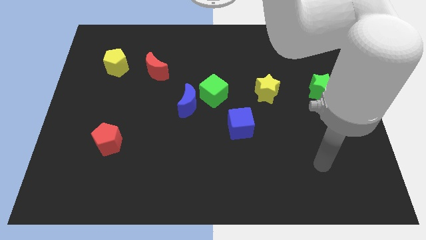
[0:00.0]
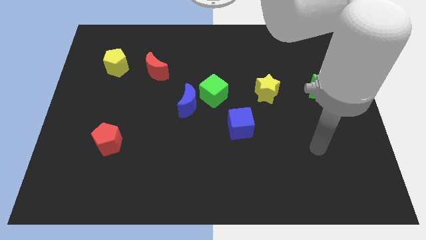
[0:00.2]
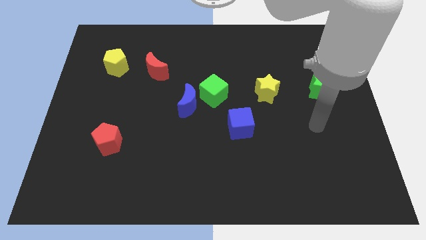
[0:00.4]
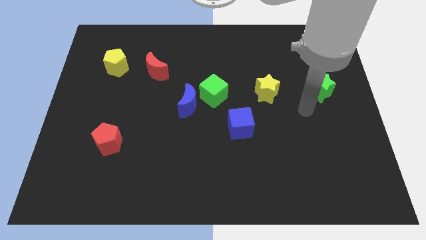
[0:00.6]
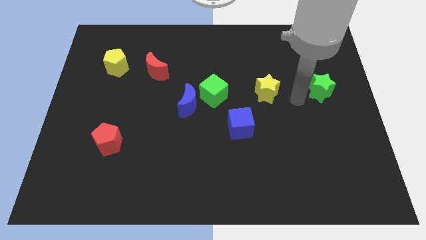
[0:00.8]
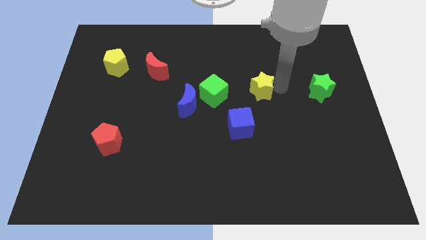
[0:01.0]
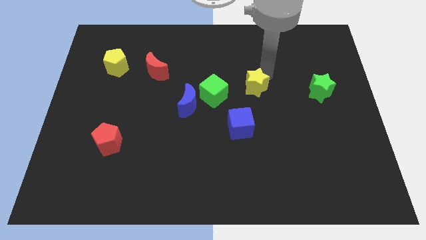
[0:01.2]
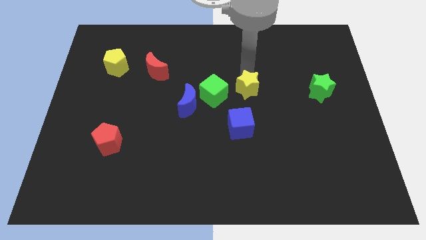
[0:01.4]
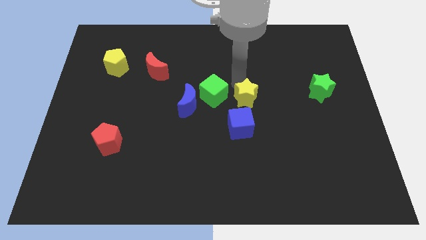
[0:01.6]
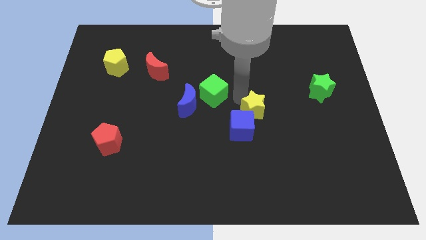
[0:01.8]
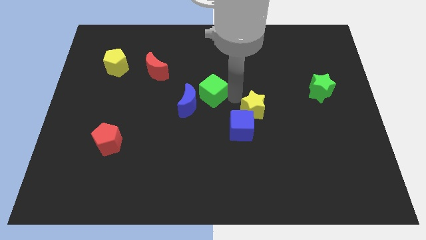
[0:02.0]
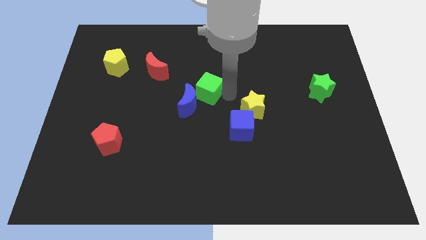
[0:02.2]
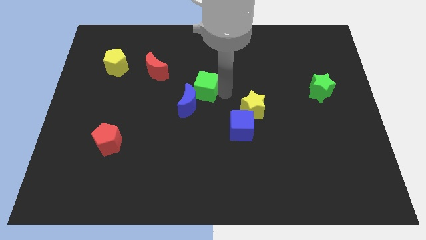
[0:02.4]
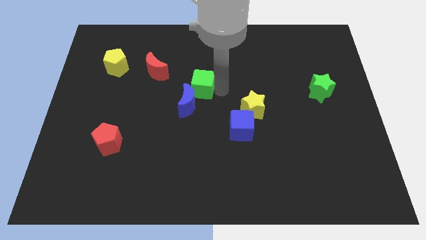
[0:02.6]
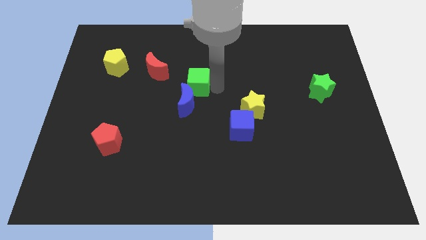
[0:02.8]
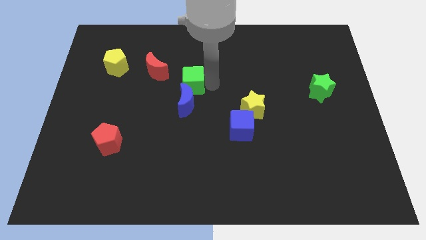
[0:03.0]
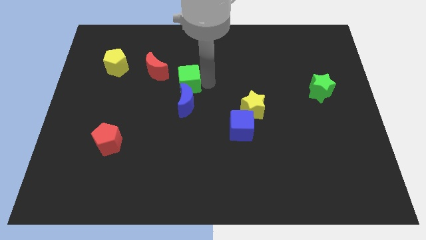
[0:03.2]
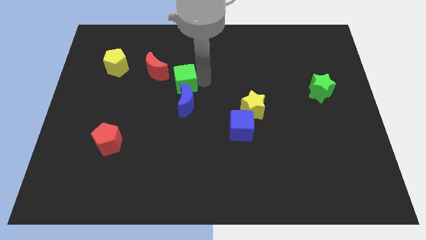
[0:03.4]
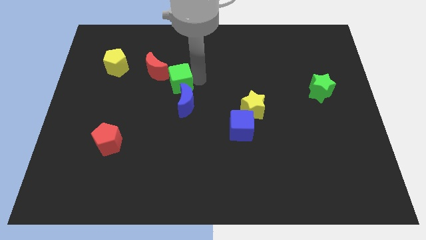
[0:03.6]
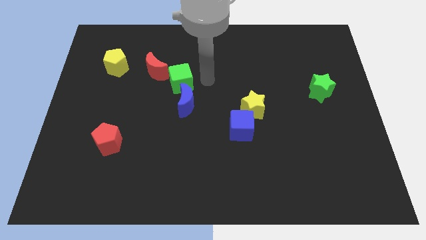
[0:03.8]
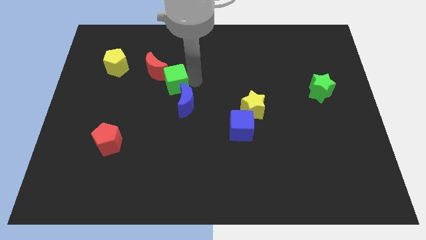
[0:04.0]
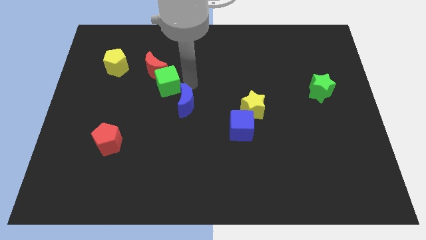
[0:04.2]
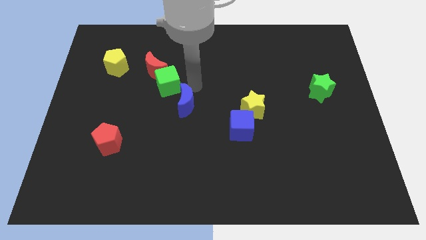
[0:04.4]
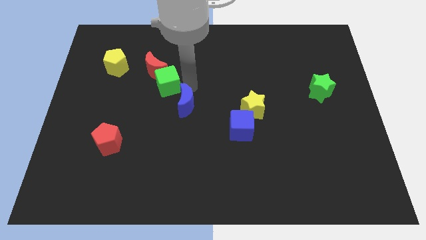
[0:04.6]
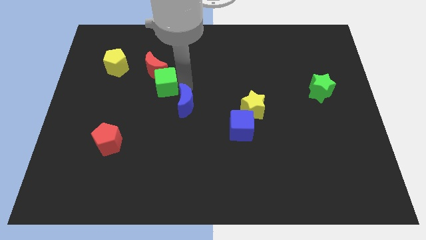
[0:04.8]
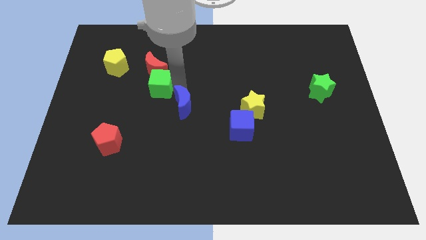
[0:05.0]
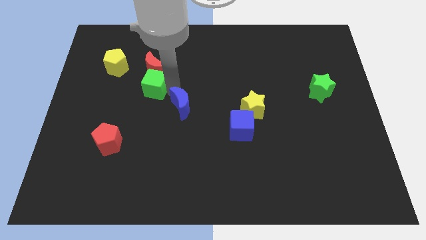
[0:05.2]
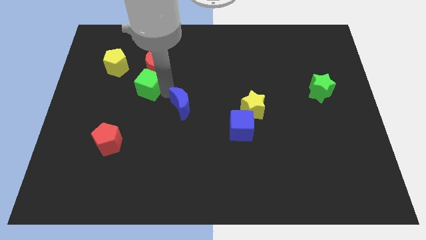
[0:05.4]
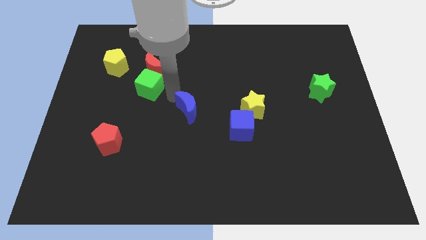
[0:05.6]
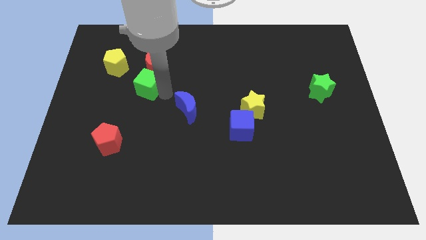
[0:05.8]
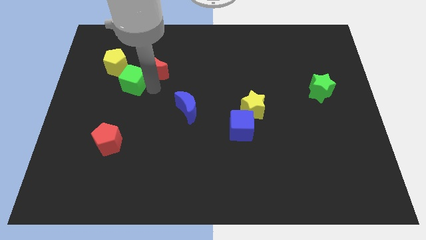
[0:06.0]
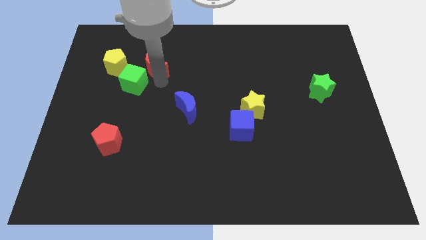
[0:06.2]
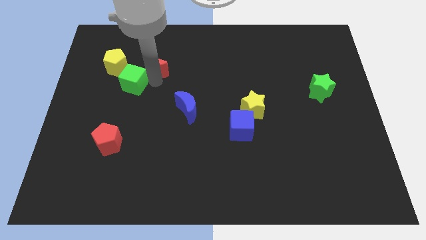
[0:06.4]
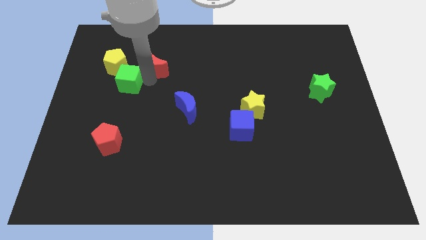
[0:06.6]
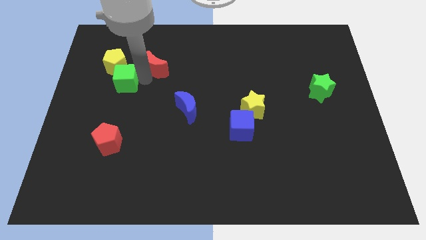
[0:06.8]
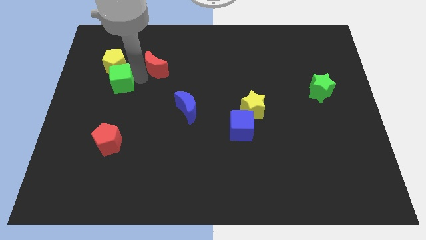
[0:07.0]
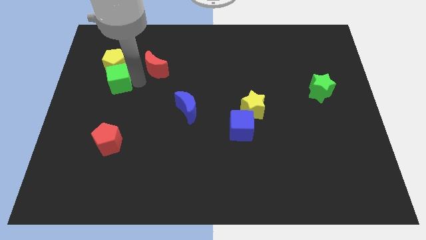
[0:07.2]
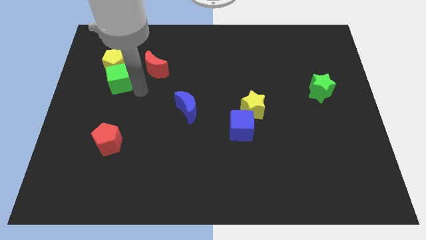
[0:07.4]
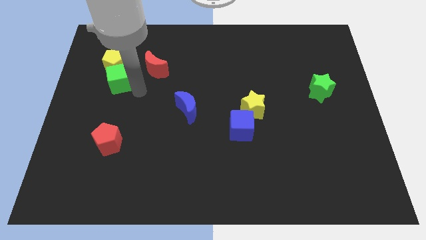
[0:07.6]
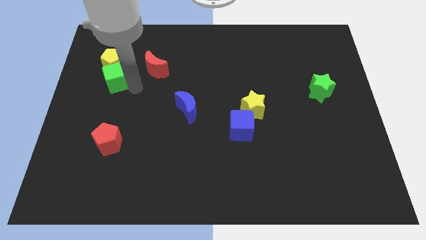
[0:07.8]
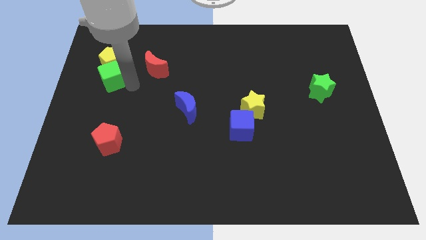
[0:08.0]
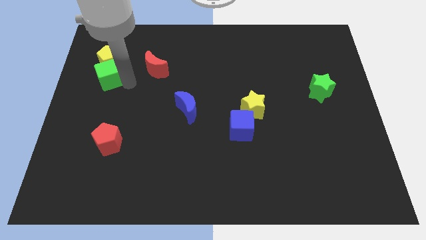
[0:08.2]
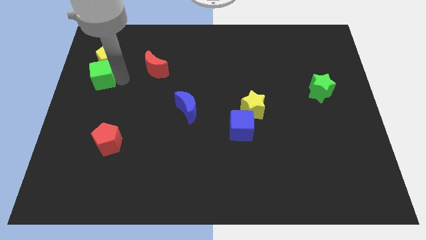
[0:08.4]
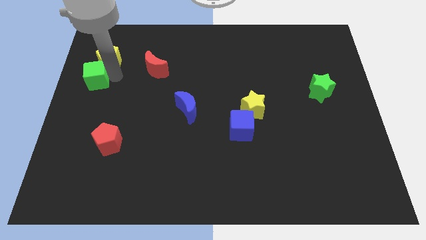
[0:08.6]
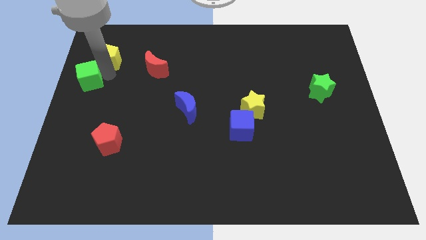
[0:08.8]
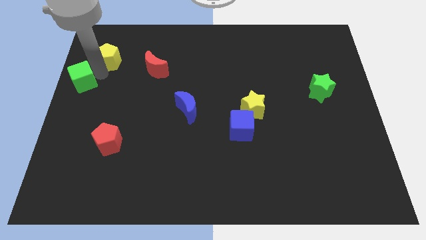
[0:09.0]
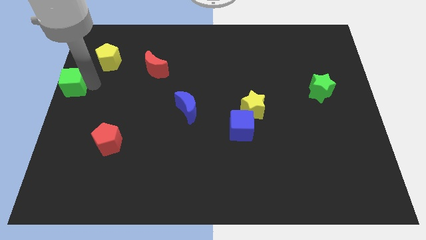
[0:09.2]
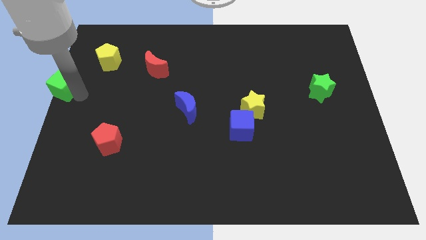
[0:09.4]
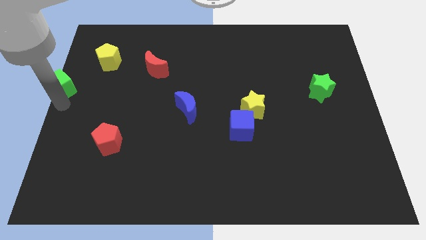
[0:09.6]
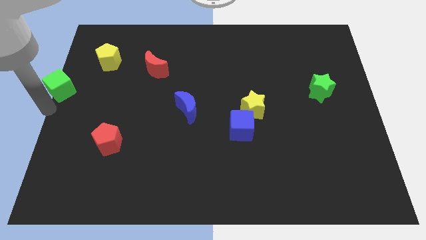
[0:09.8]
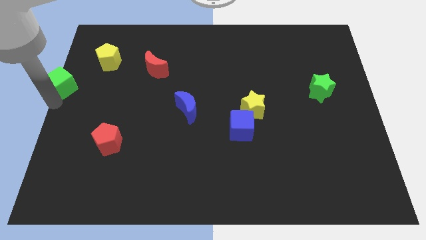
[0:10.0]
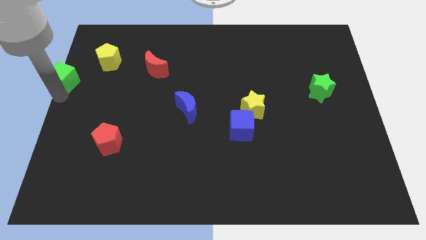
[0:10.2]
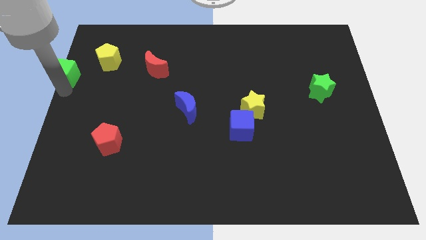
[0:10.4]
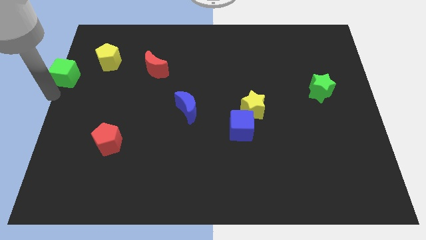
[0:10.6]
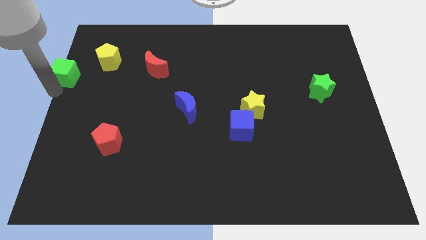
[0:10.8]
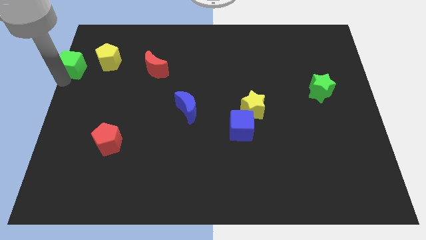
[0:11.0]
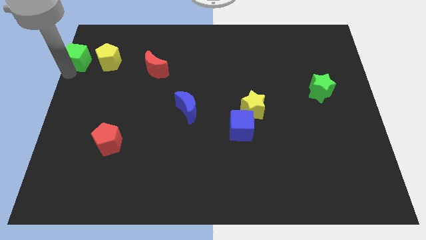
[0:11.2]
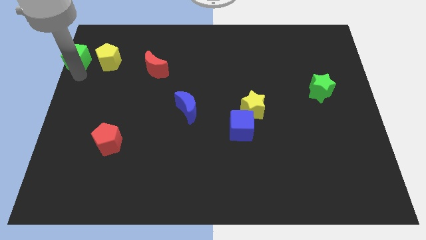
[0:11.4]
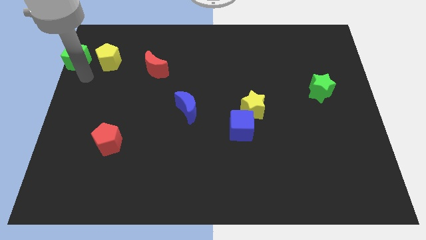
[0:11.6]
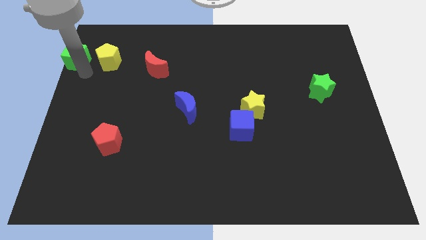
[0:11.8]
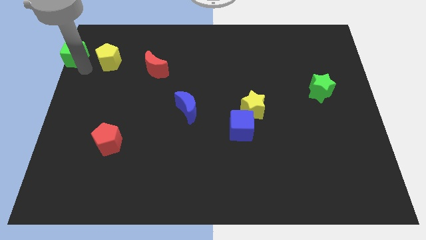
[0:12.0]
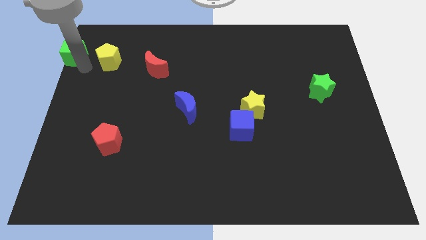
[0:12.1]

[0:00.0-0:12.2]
push the green cube to the top left of the board
